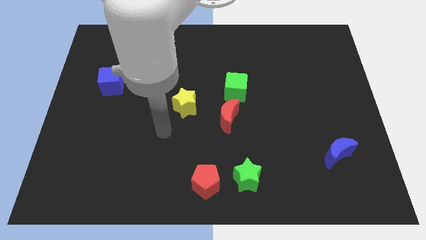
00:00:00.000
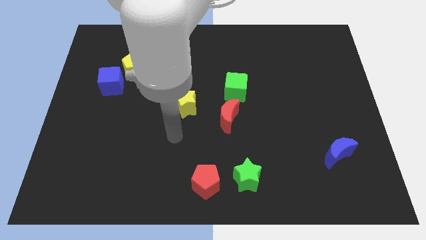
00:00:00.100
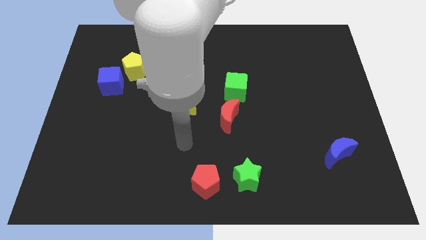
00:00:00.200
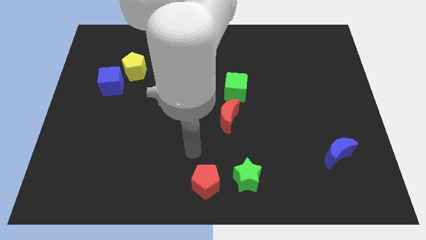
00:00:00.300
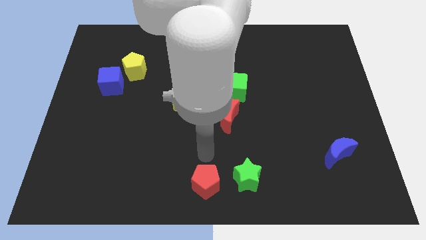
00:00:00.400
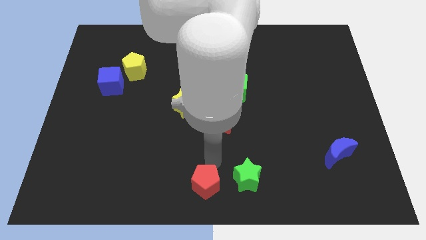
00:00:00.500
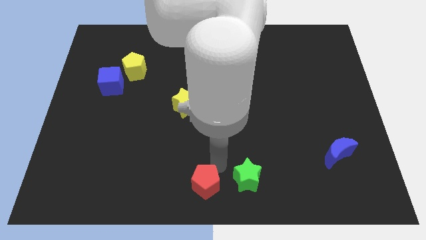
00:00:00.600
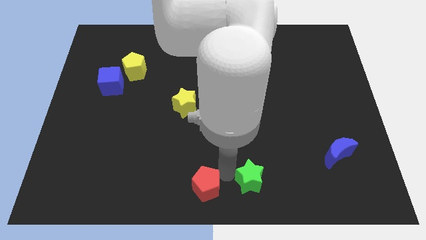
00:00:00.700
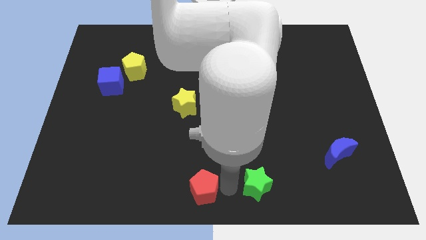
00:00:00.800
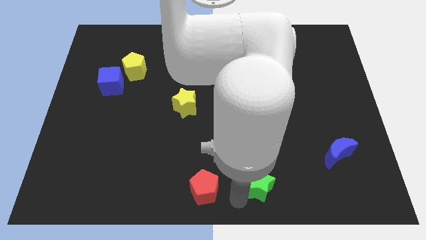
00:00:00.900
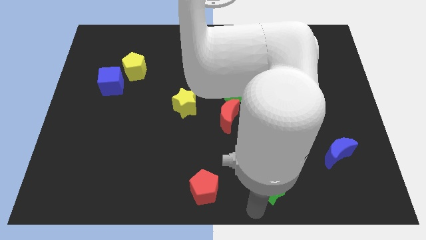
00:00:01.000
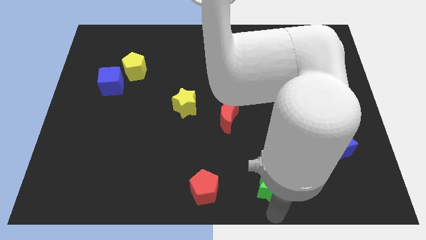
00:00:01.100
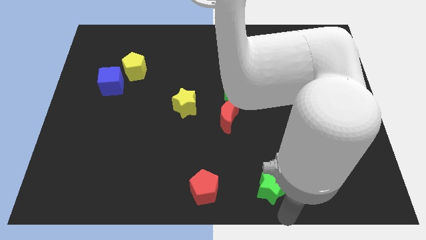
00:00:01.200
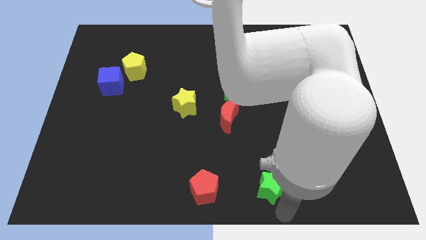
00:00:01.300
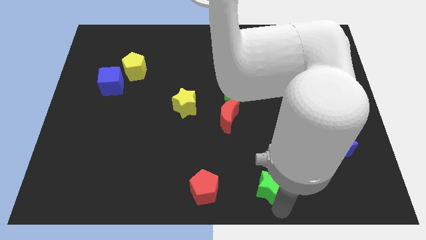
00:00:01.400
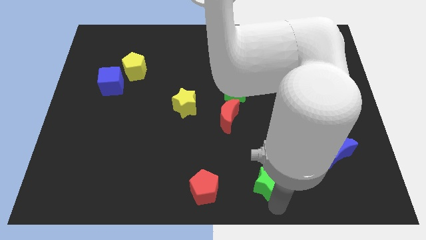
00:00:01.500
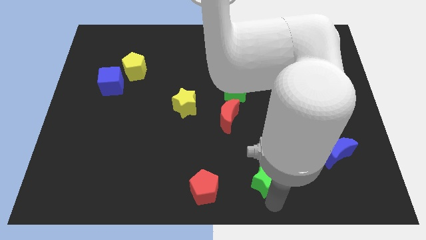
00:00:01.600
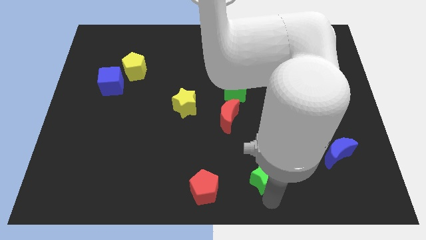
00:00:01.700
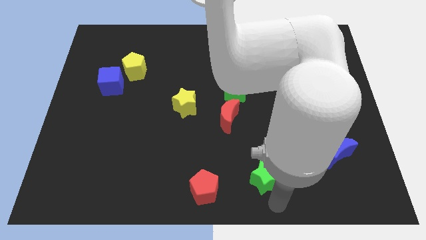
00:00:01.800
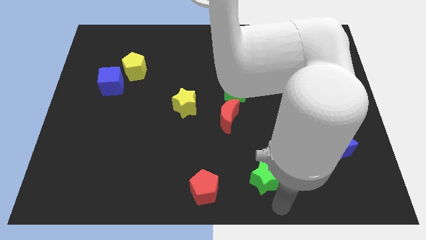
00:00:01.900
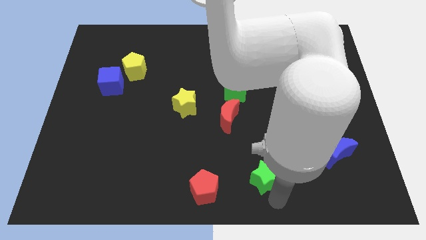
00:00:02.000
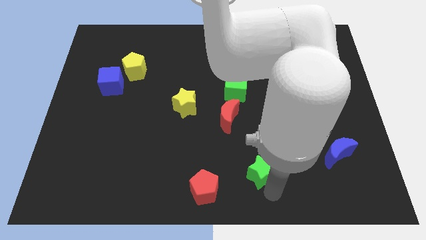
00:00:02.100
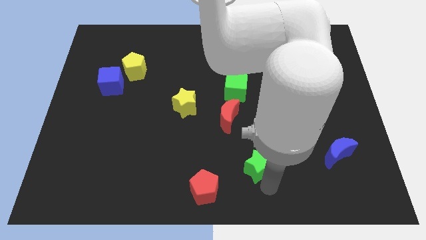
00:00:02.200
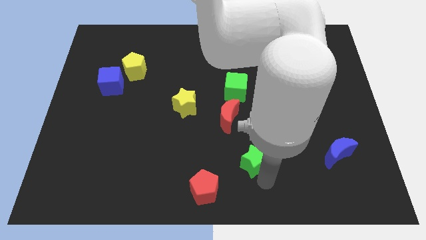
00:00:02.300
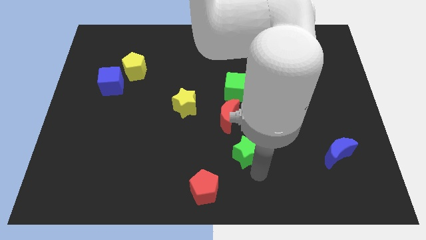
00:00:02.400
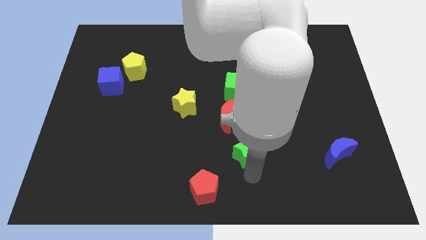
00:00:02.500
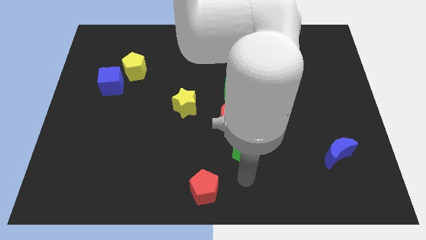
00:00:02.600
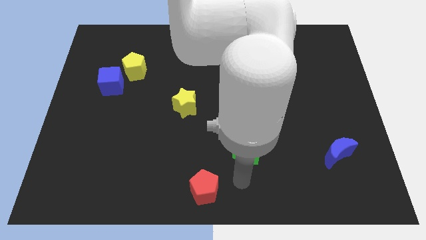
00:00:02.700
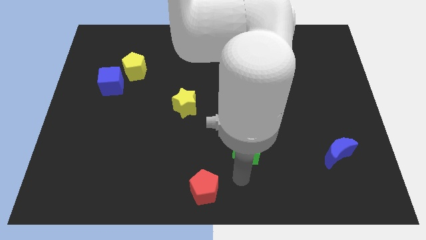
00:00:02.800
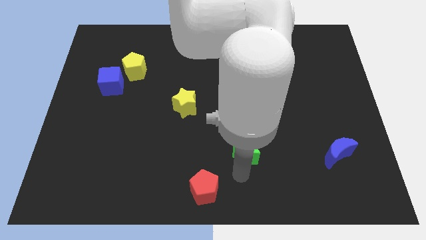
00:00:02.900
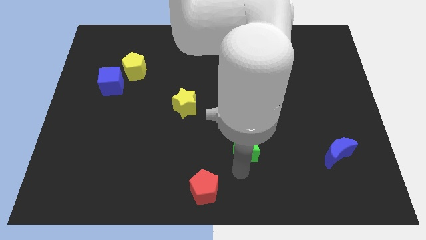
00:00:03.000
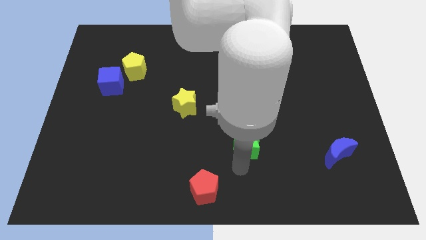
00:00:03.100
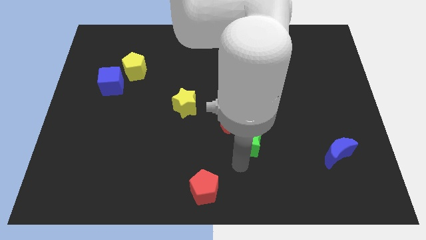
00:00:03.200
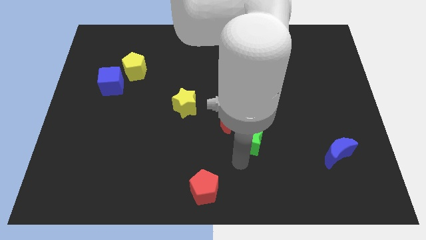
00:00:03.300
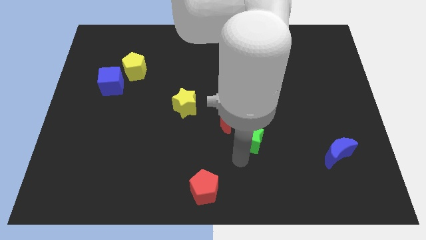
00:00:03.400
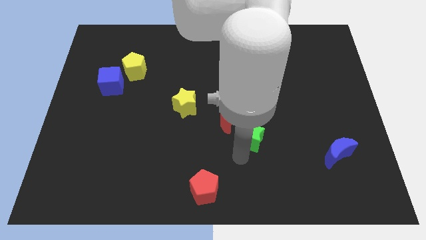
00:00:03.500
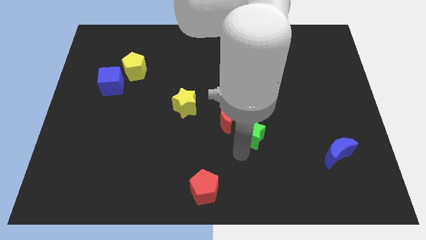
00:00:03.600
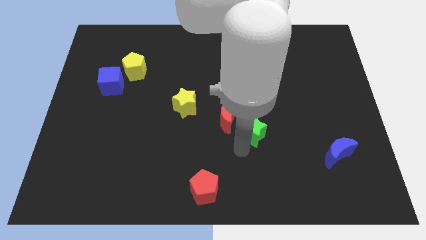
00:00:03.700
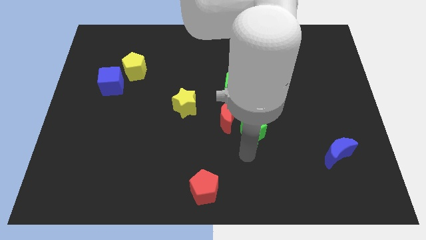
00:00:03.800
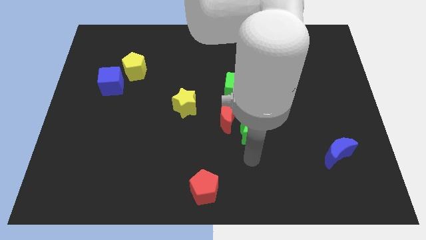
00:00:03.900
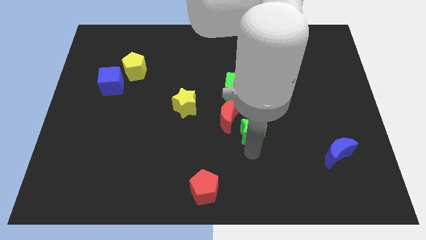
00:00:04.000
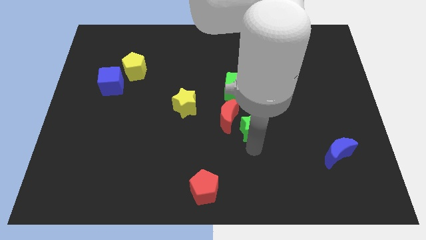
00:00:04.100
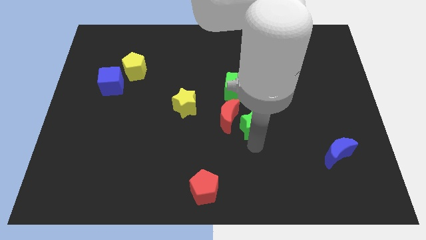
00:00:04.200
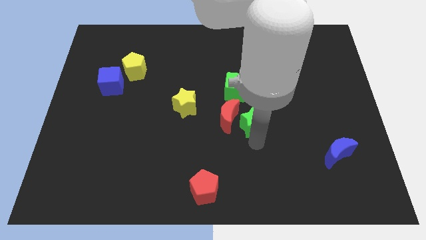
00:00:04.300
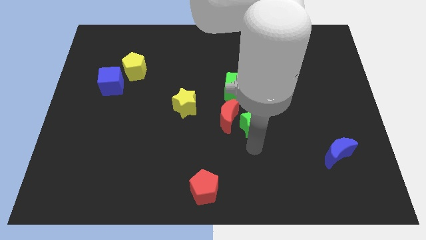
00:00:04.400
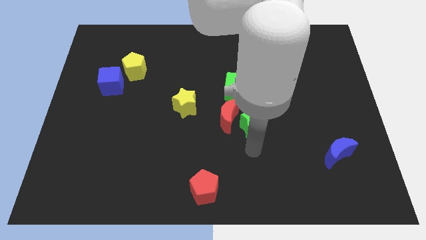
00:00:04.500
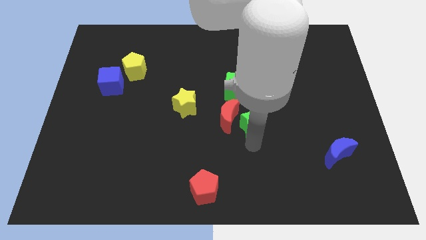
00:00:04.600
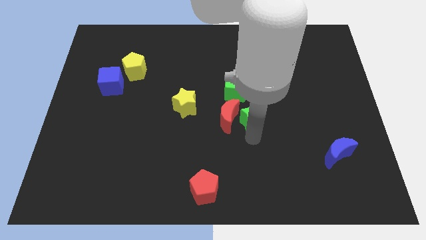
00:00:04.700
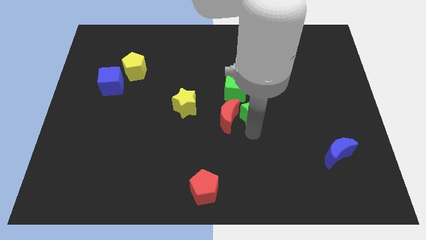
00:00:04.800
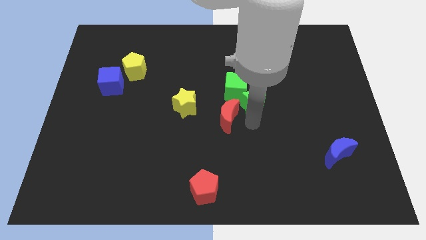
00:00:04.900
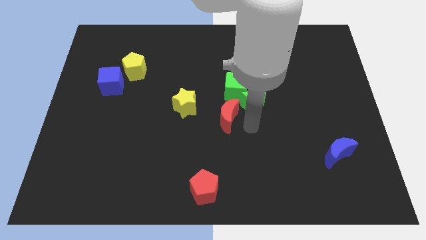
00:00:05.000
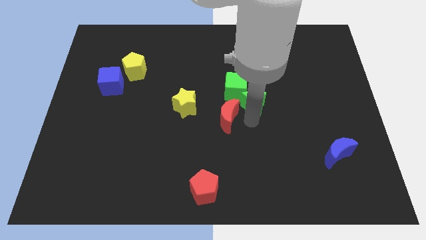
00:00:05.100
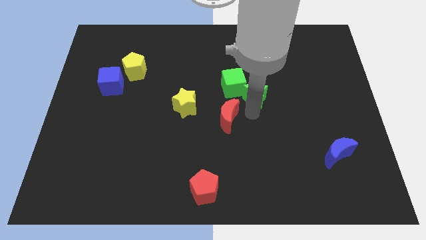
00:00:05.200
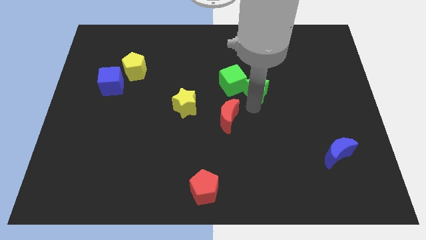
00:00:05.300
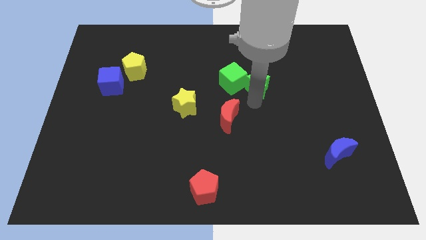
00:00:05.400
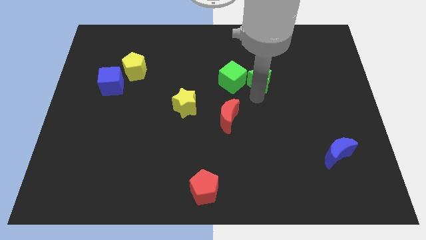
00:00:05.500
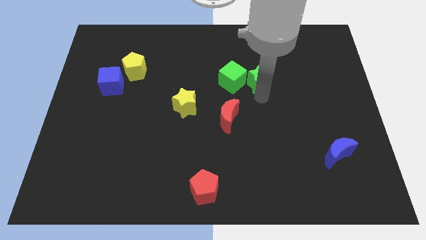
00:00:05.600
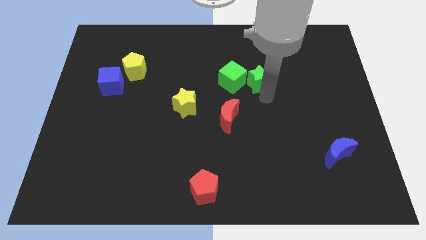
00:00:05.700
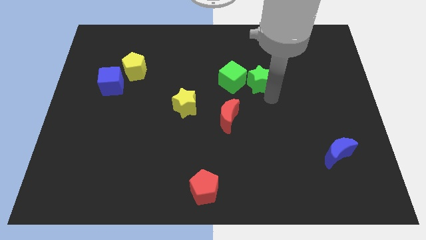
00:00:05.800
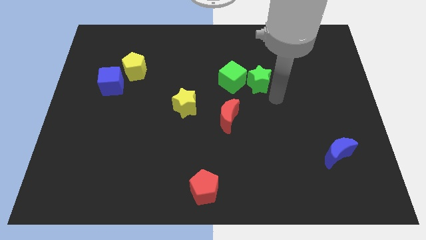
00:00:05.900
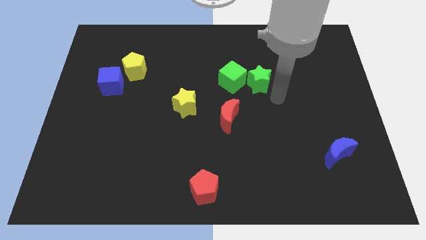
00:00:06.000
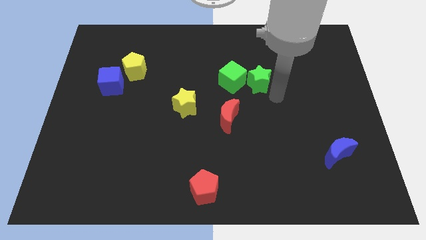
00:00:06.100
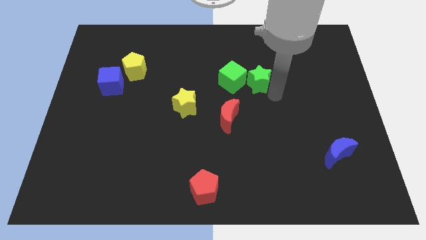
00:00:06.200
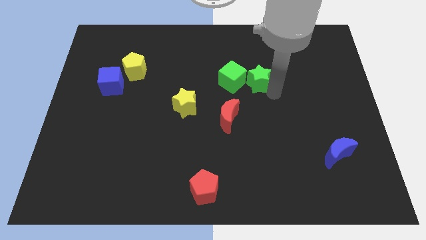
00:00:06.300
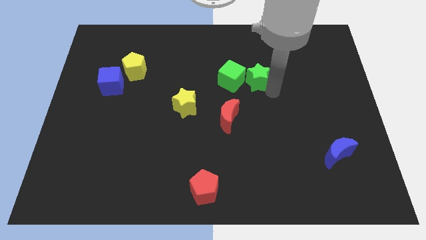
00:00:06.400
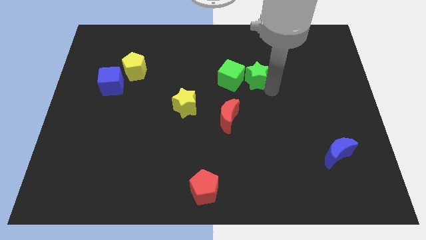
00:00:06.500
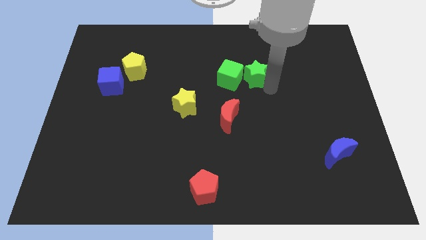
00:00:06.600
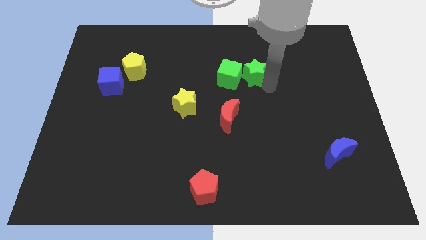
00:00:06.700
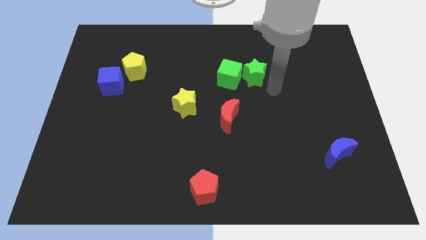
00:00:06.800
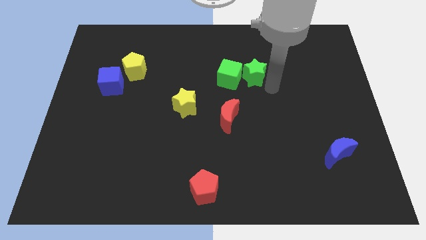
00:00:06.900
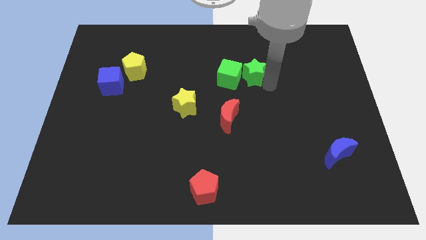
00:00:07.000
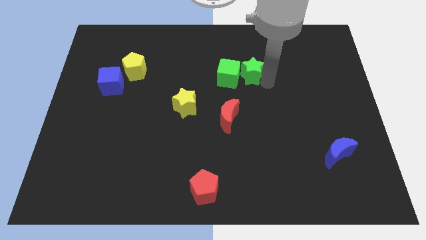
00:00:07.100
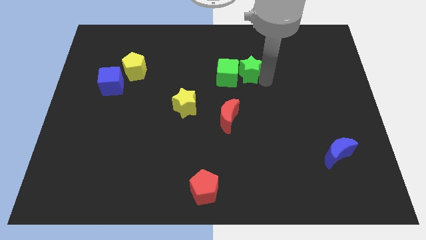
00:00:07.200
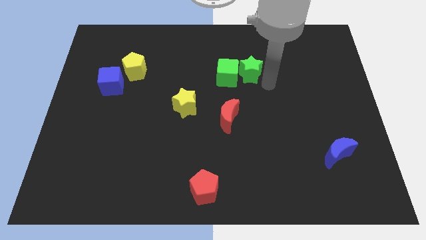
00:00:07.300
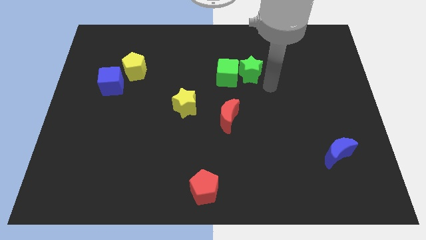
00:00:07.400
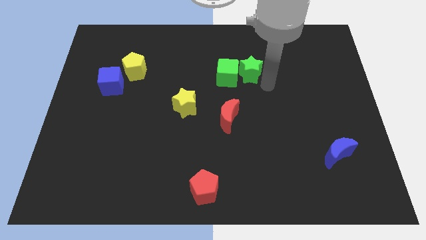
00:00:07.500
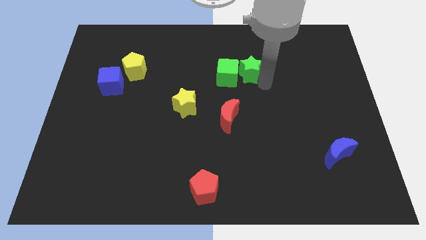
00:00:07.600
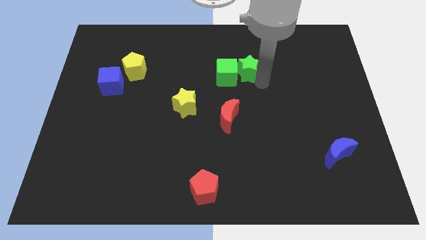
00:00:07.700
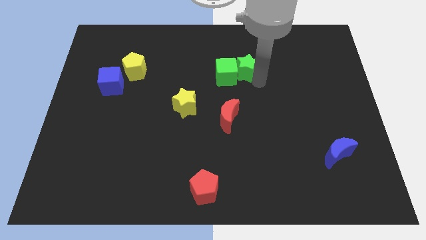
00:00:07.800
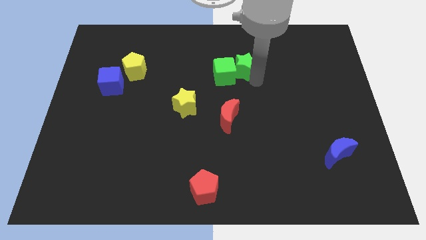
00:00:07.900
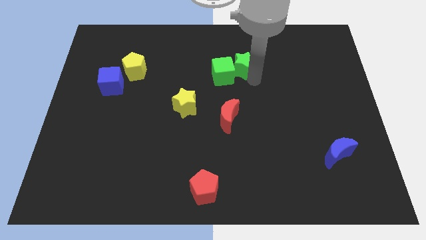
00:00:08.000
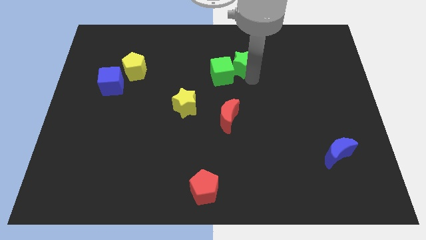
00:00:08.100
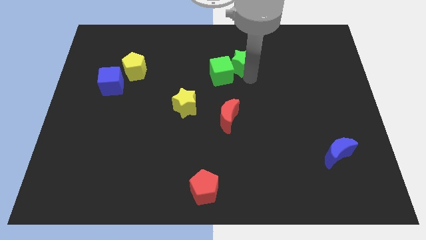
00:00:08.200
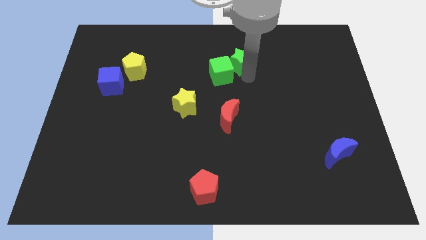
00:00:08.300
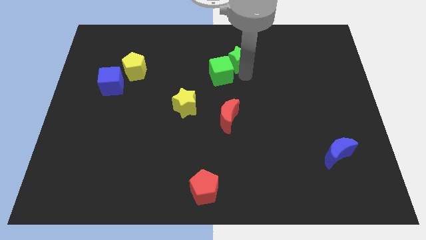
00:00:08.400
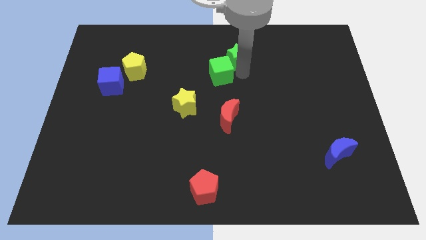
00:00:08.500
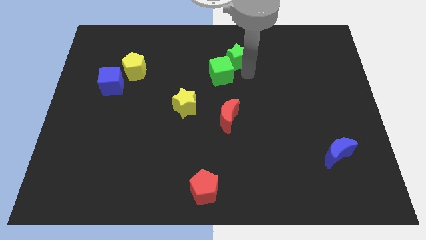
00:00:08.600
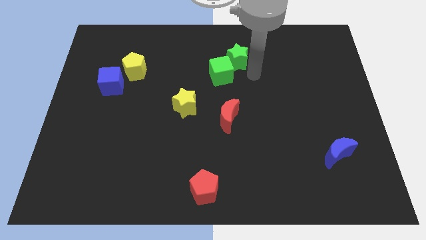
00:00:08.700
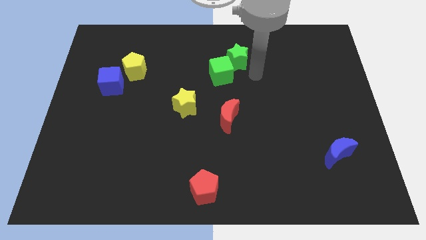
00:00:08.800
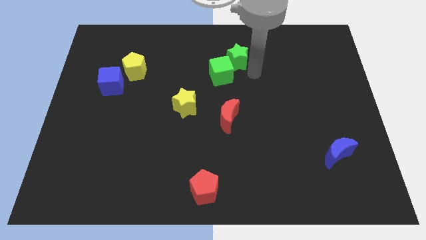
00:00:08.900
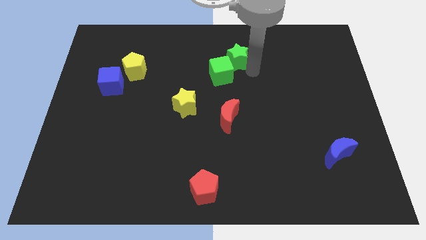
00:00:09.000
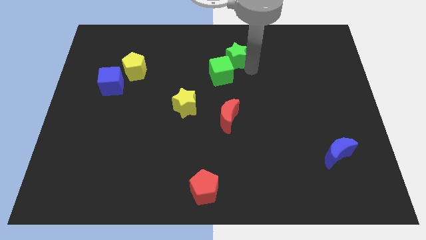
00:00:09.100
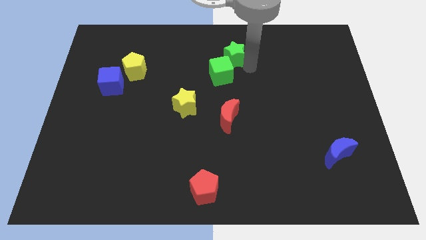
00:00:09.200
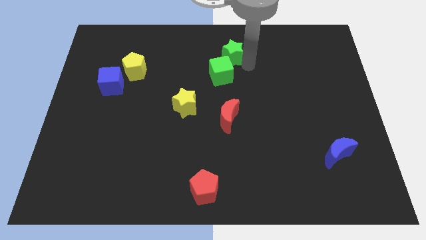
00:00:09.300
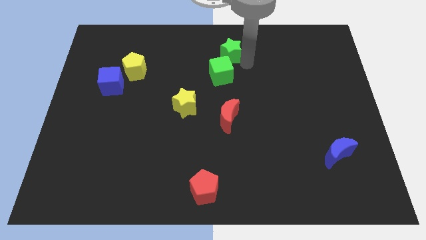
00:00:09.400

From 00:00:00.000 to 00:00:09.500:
move the green star to the top
